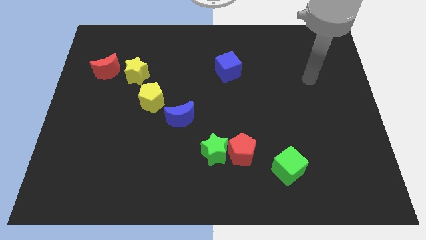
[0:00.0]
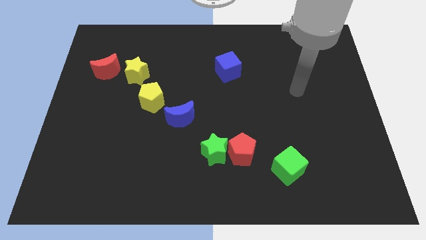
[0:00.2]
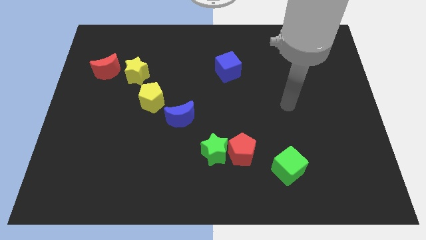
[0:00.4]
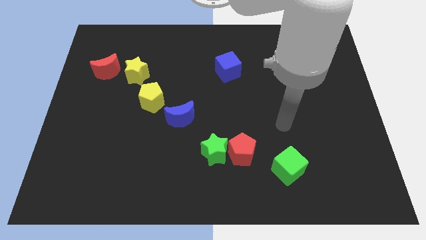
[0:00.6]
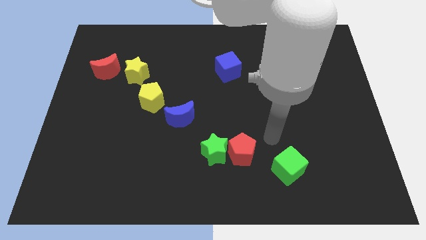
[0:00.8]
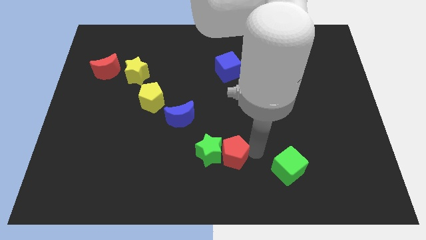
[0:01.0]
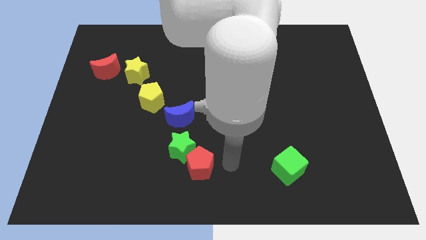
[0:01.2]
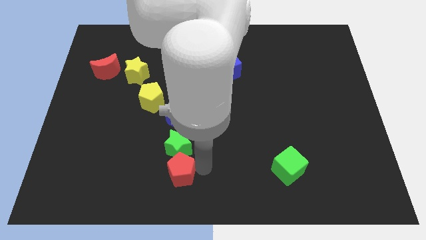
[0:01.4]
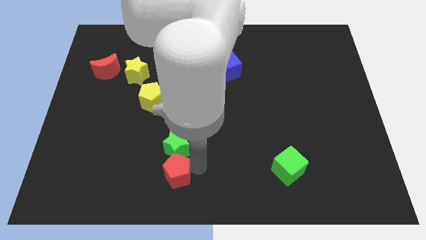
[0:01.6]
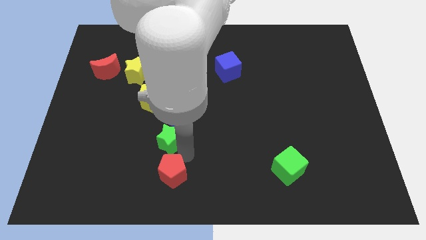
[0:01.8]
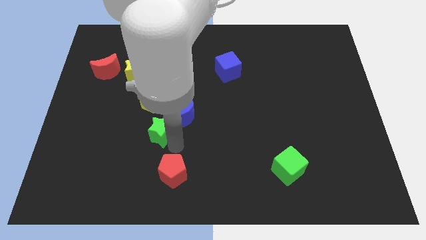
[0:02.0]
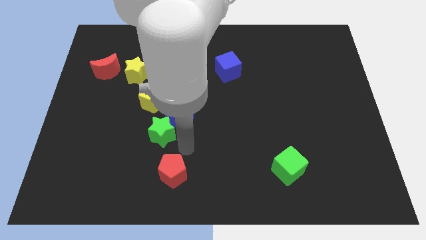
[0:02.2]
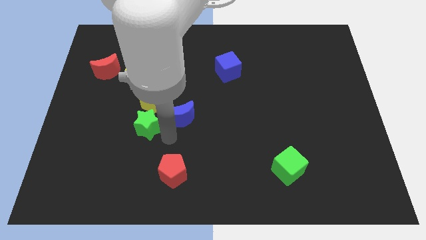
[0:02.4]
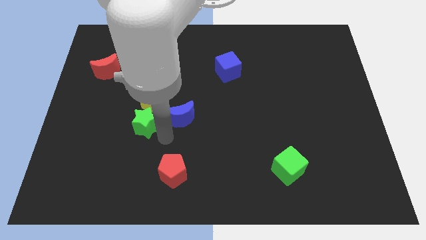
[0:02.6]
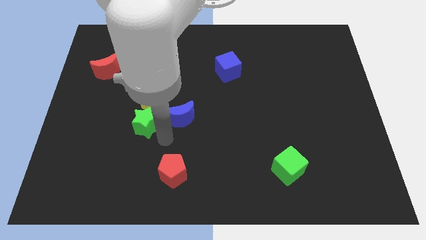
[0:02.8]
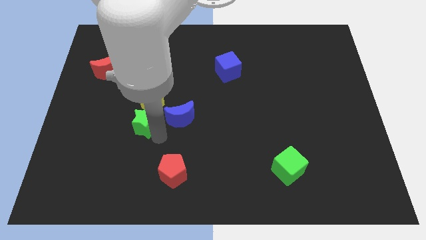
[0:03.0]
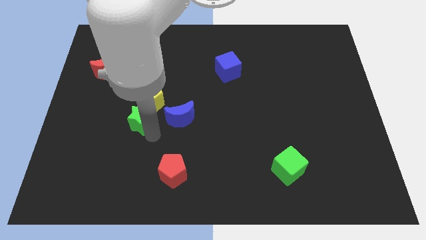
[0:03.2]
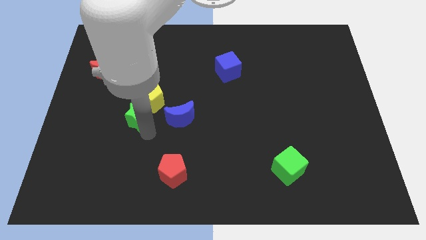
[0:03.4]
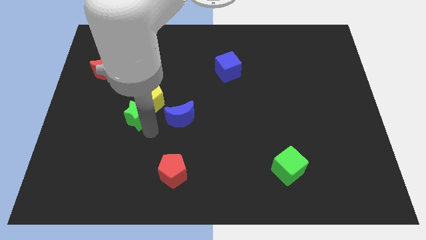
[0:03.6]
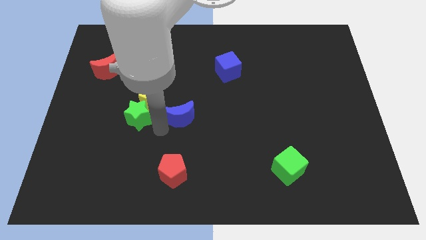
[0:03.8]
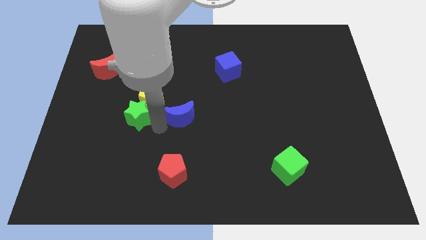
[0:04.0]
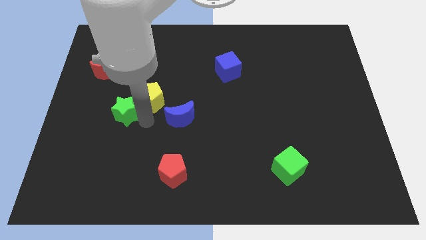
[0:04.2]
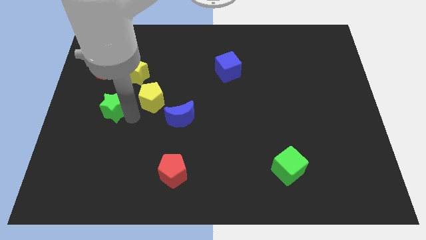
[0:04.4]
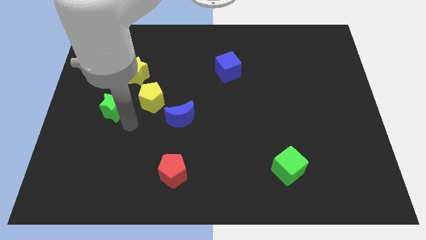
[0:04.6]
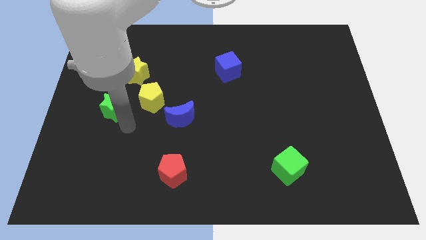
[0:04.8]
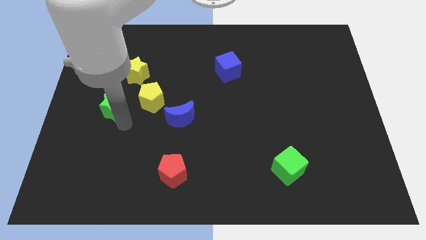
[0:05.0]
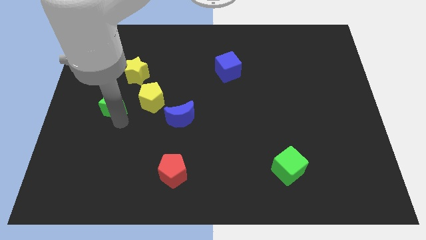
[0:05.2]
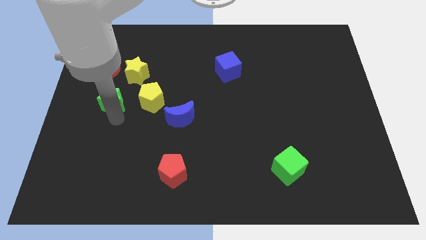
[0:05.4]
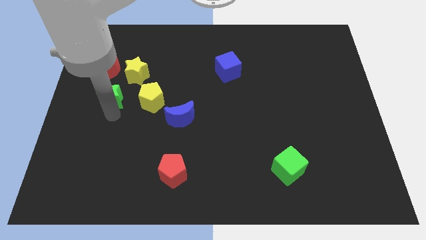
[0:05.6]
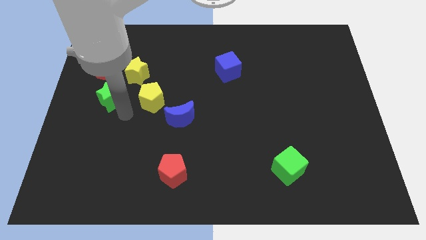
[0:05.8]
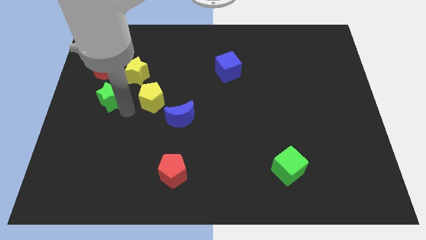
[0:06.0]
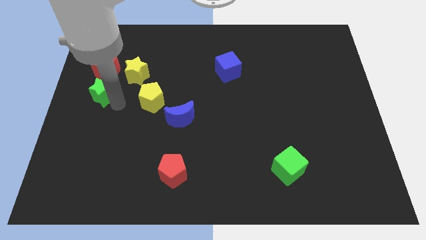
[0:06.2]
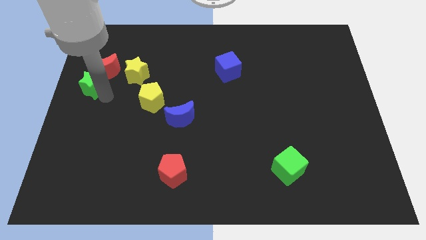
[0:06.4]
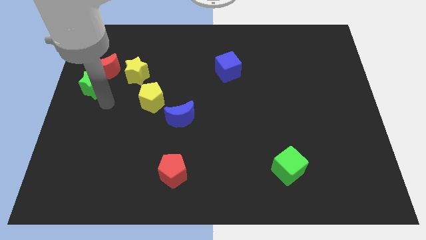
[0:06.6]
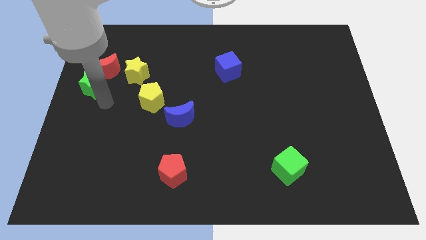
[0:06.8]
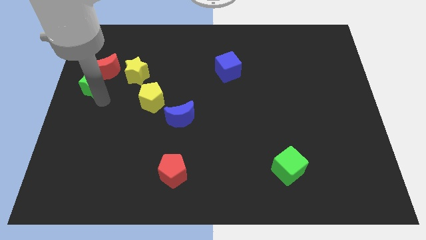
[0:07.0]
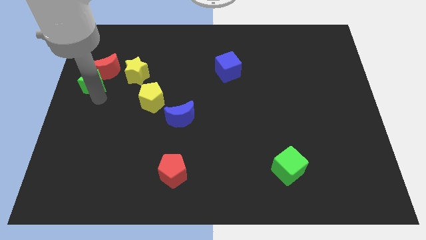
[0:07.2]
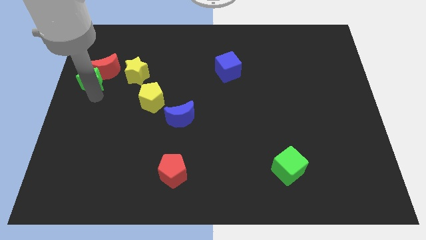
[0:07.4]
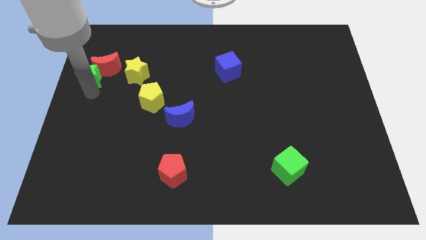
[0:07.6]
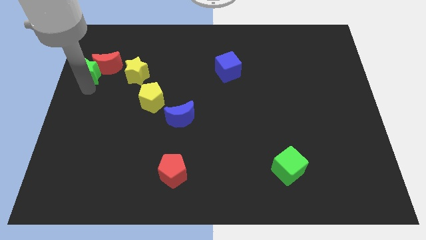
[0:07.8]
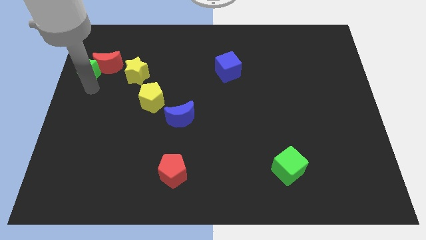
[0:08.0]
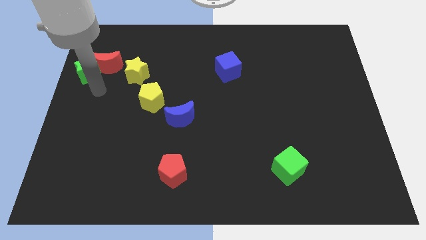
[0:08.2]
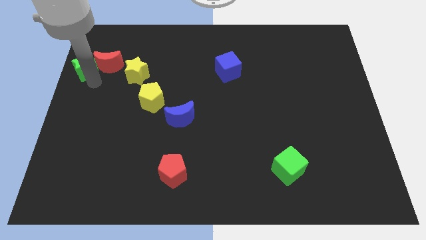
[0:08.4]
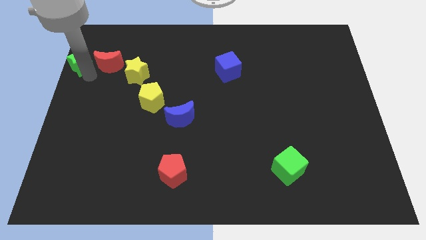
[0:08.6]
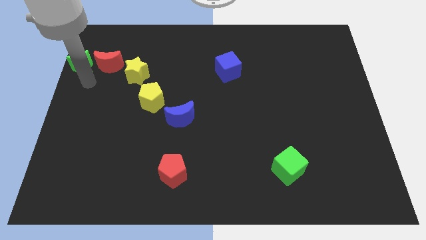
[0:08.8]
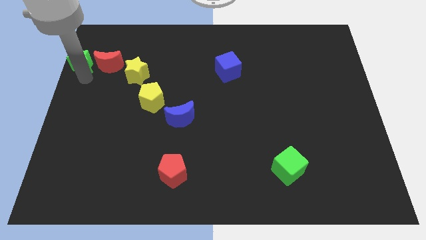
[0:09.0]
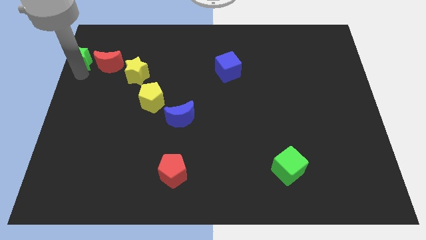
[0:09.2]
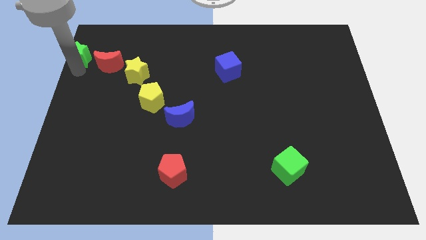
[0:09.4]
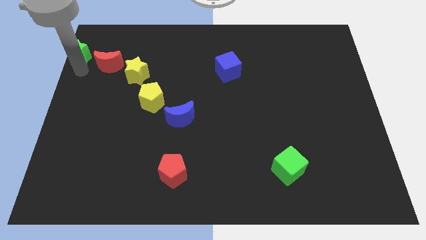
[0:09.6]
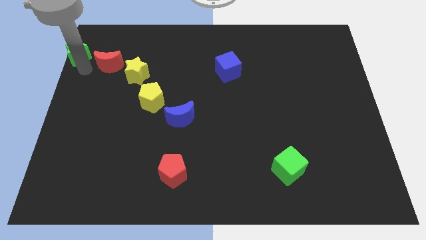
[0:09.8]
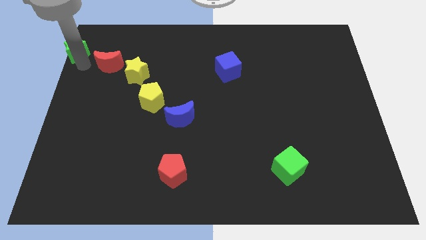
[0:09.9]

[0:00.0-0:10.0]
move the green star to the top left of the board

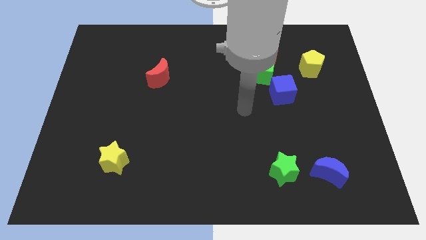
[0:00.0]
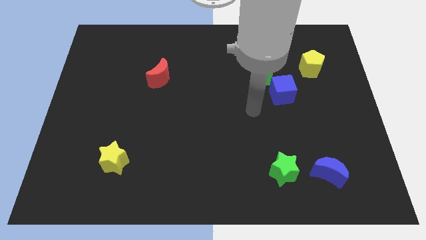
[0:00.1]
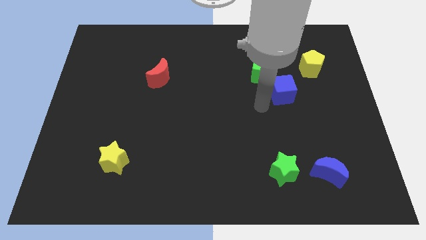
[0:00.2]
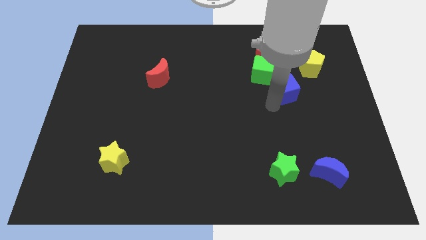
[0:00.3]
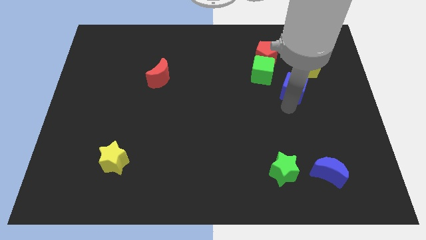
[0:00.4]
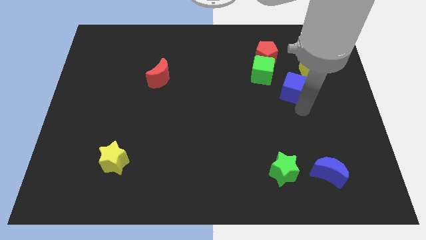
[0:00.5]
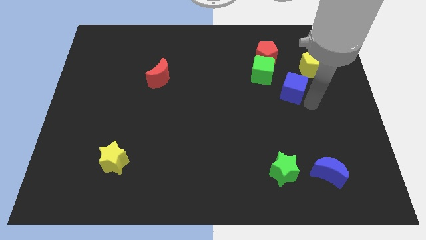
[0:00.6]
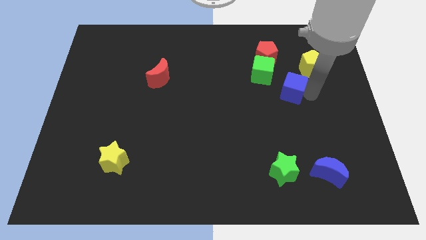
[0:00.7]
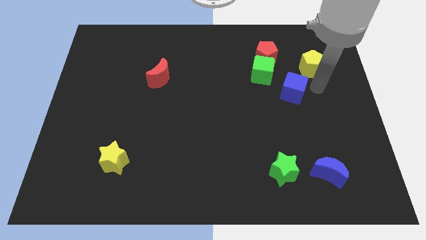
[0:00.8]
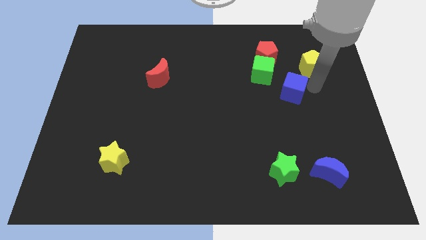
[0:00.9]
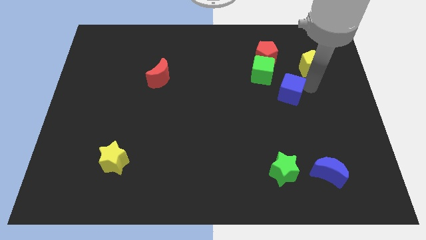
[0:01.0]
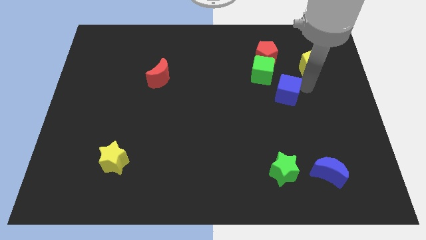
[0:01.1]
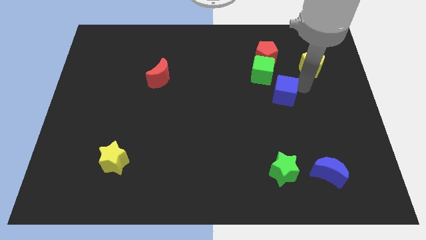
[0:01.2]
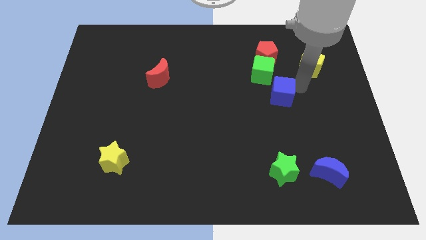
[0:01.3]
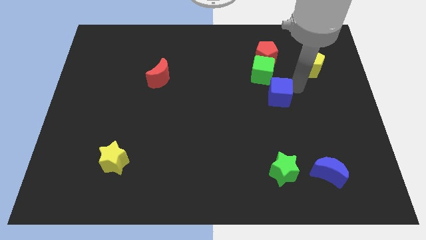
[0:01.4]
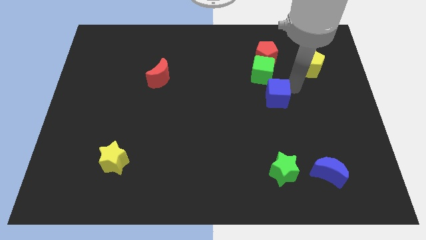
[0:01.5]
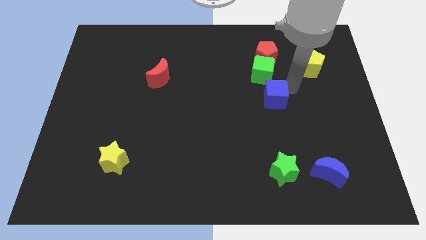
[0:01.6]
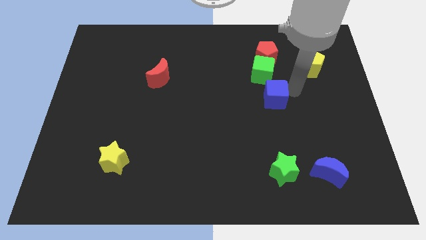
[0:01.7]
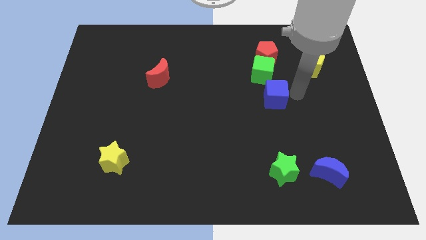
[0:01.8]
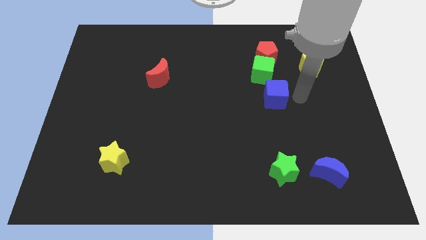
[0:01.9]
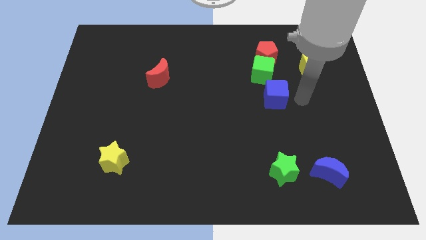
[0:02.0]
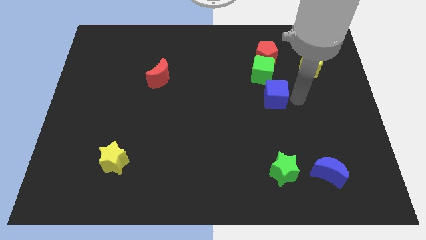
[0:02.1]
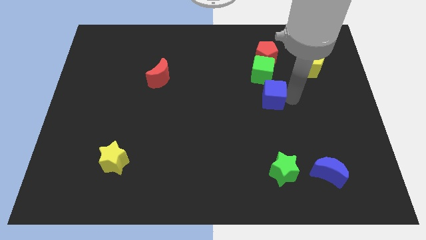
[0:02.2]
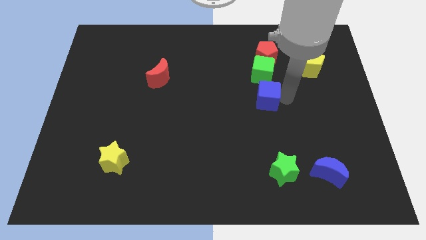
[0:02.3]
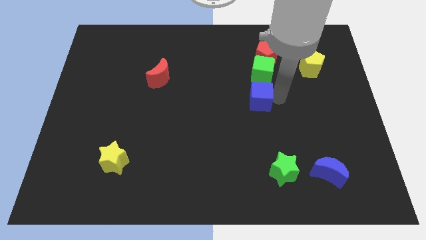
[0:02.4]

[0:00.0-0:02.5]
slide the blue cube to the center of the board
